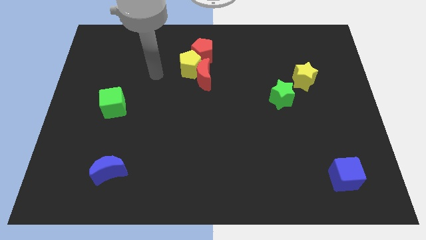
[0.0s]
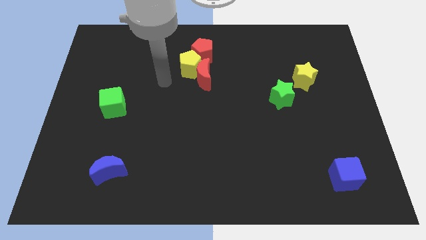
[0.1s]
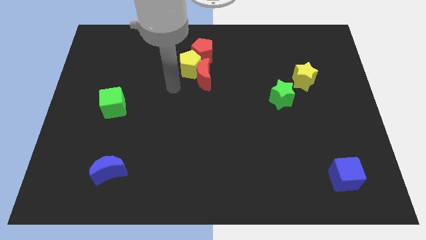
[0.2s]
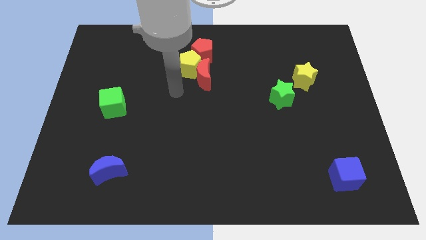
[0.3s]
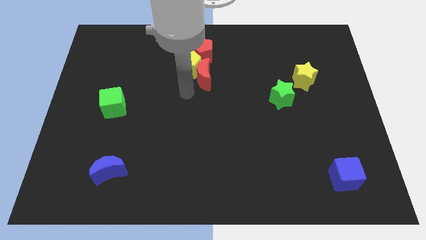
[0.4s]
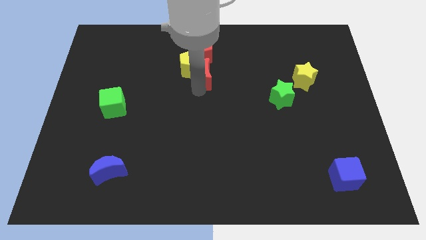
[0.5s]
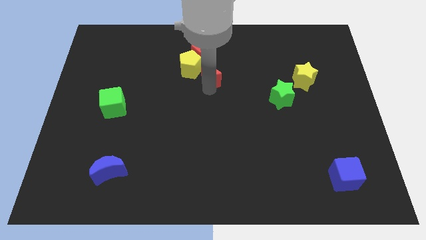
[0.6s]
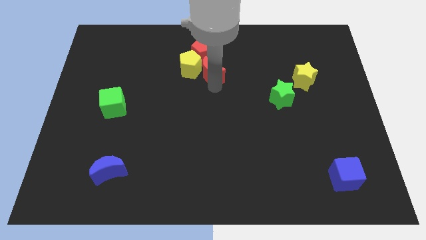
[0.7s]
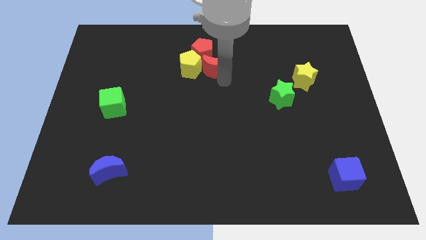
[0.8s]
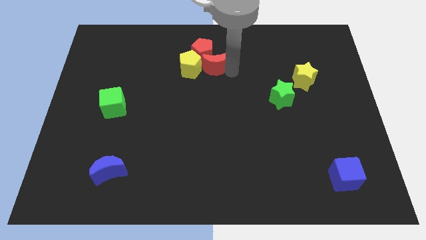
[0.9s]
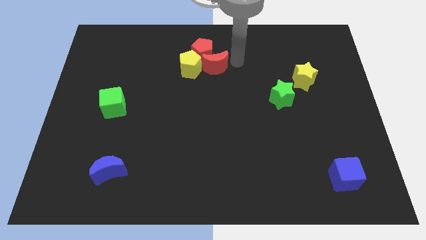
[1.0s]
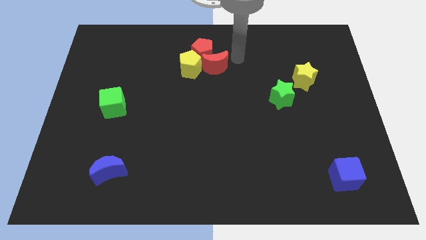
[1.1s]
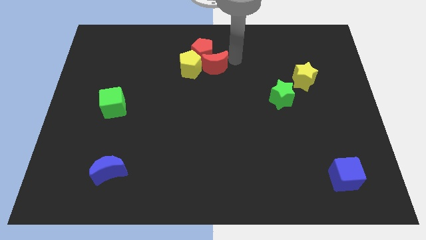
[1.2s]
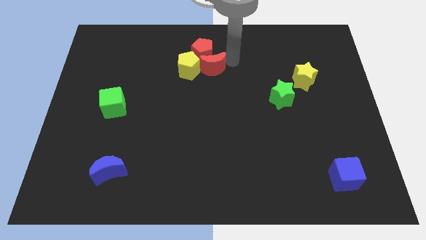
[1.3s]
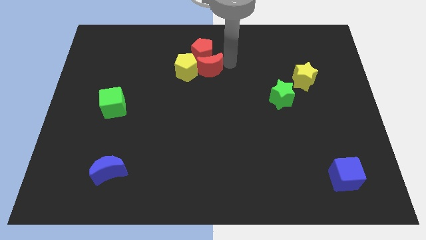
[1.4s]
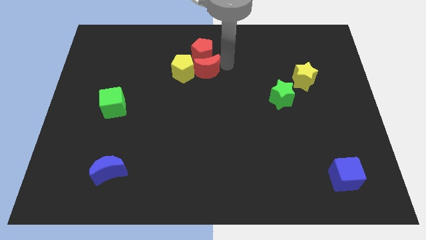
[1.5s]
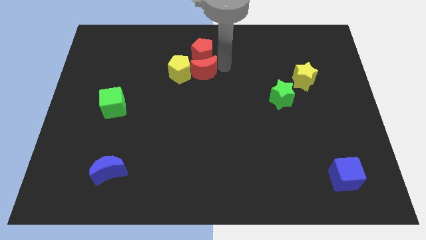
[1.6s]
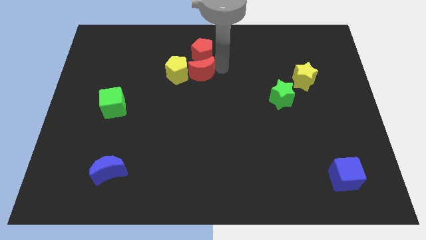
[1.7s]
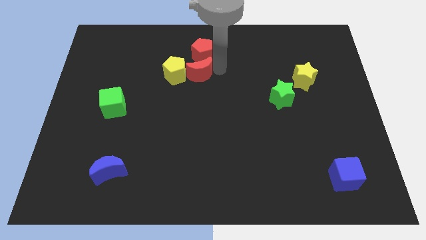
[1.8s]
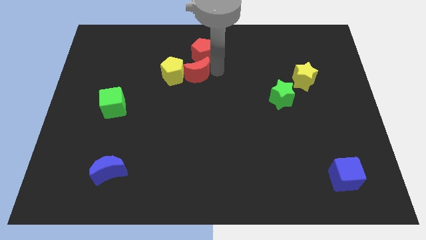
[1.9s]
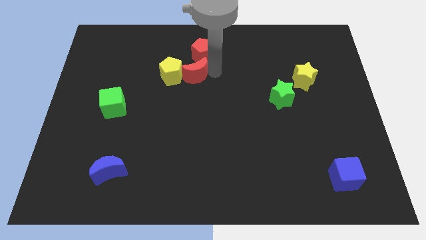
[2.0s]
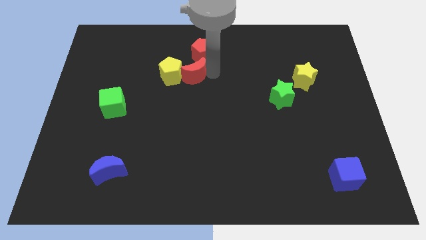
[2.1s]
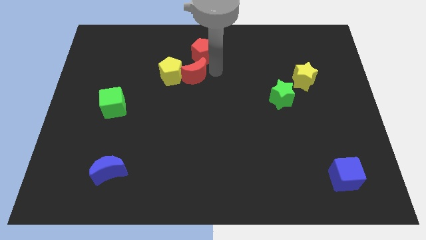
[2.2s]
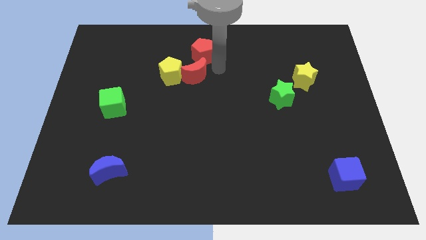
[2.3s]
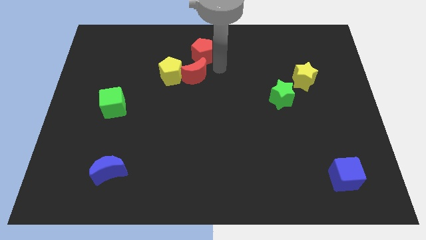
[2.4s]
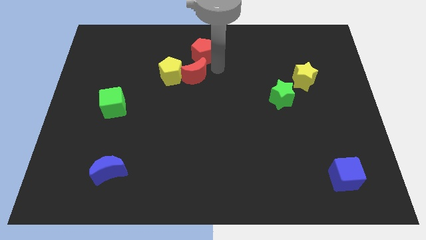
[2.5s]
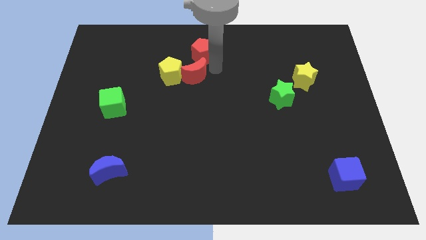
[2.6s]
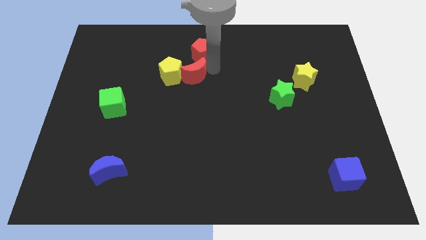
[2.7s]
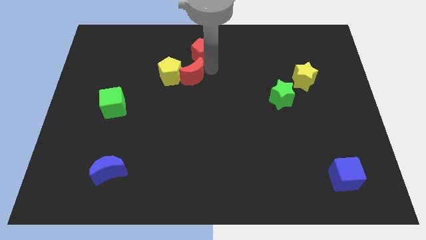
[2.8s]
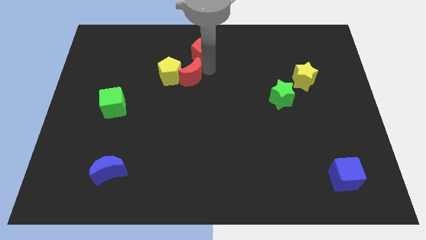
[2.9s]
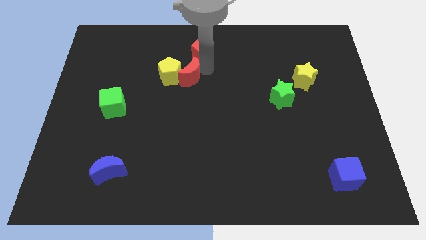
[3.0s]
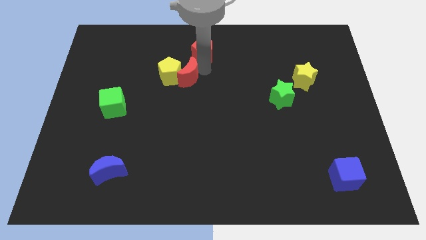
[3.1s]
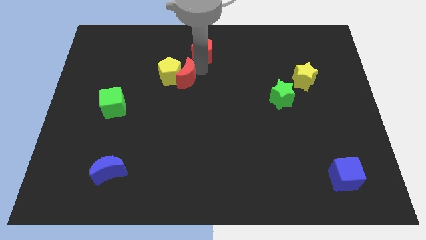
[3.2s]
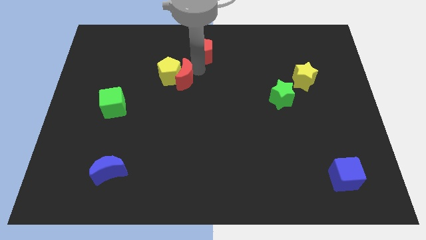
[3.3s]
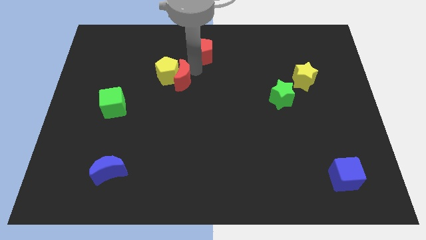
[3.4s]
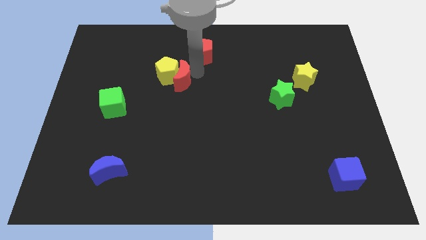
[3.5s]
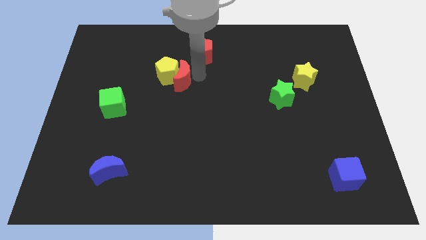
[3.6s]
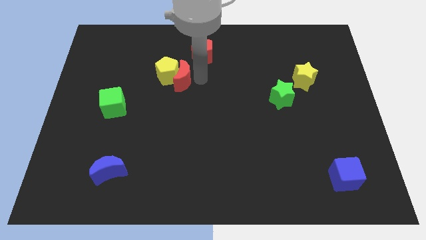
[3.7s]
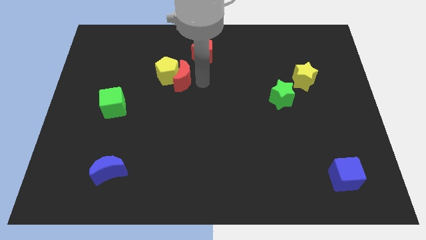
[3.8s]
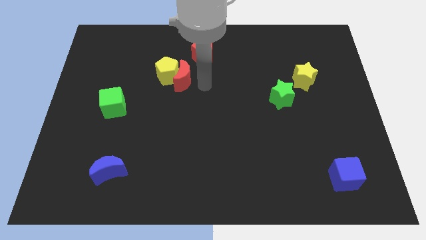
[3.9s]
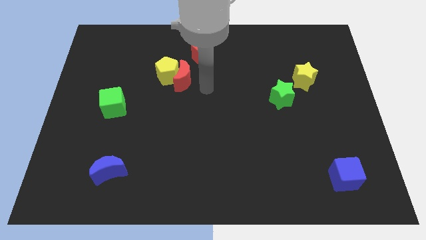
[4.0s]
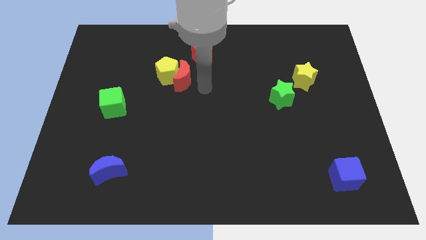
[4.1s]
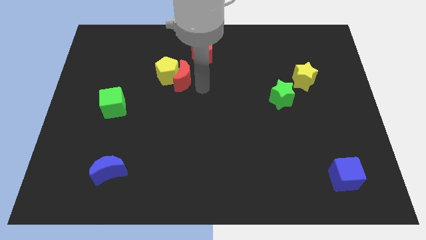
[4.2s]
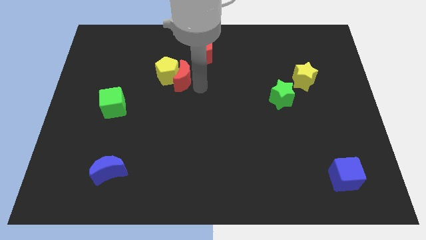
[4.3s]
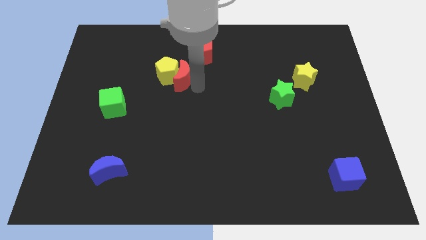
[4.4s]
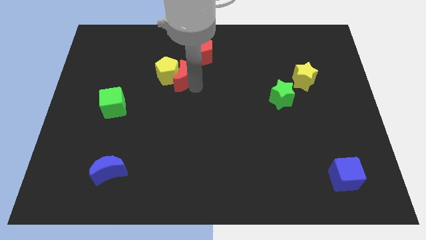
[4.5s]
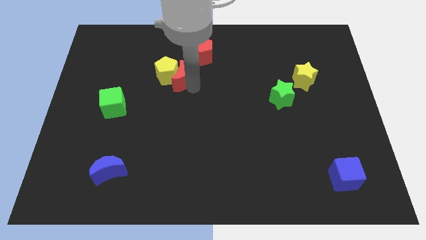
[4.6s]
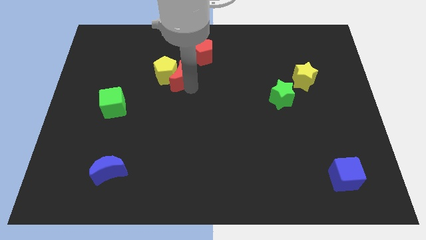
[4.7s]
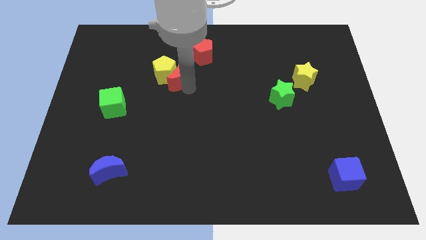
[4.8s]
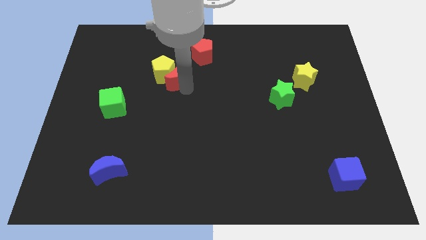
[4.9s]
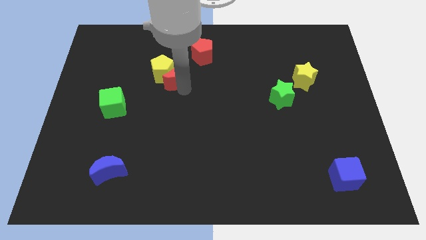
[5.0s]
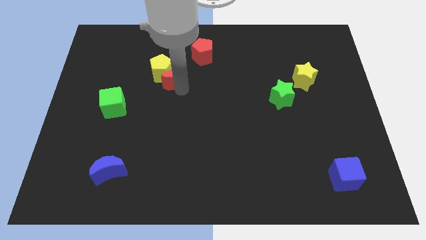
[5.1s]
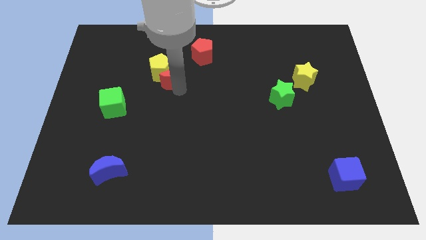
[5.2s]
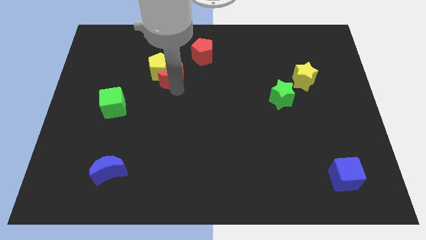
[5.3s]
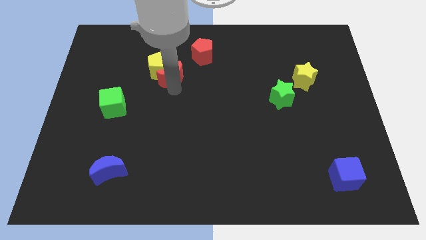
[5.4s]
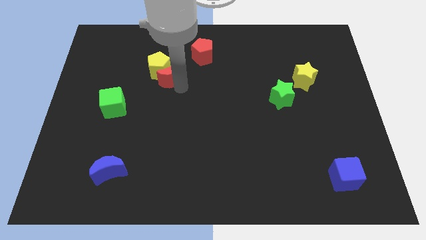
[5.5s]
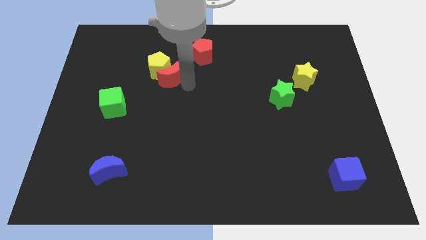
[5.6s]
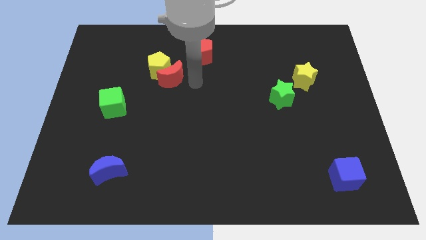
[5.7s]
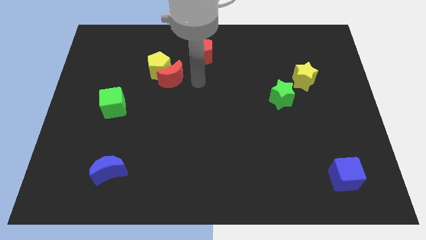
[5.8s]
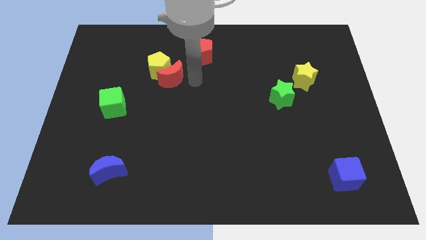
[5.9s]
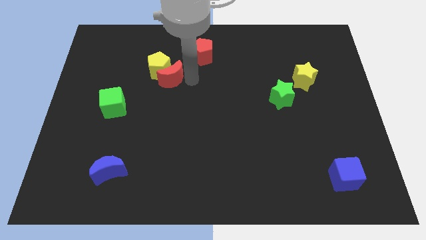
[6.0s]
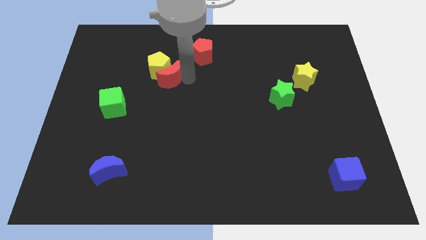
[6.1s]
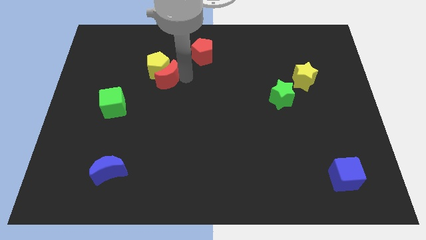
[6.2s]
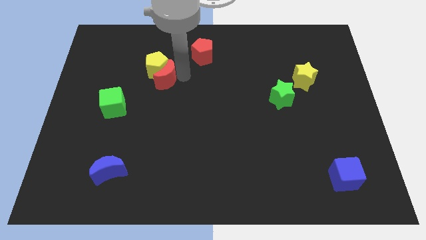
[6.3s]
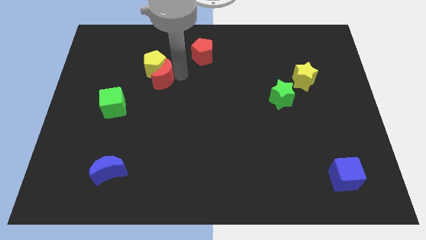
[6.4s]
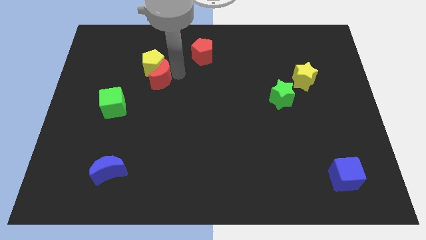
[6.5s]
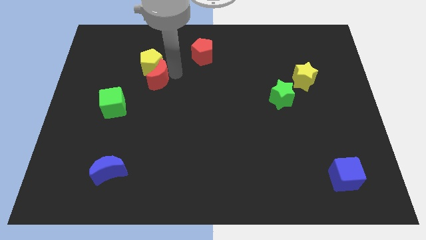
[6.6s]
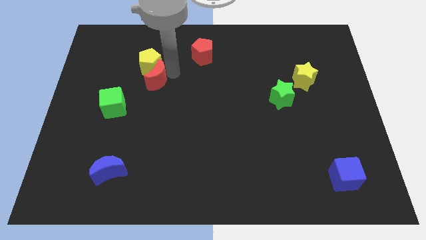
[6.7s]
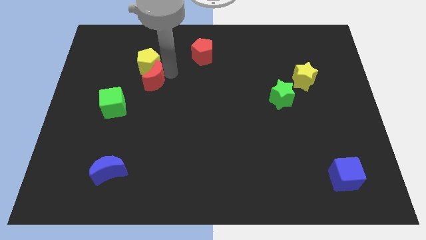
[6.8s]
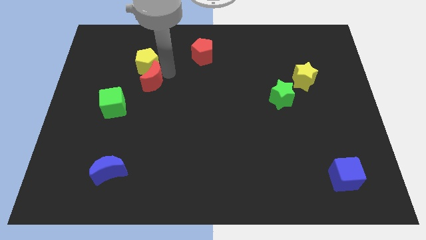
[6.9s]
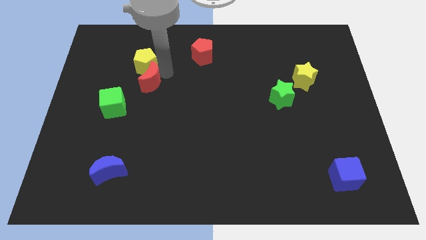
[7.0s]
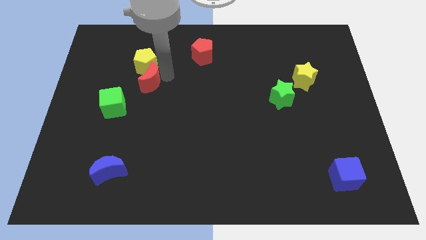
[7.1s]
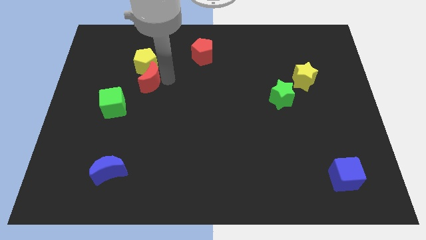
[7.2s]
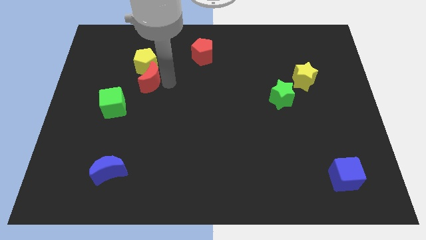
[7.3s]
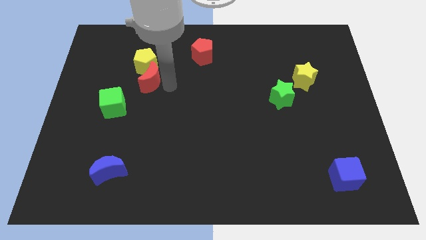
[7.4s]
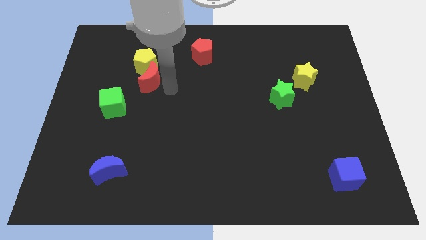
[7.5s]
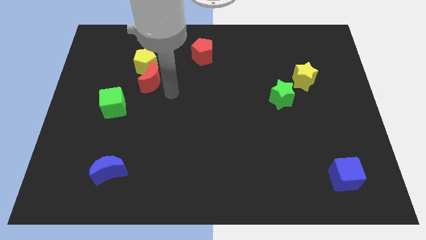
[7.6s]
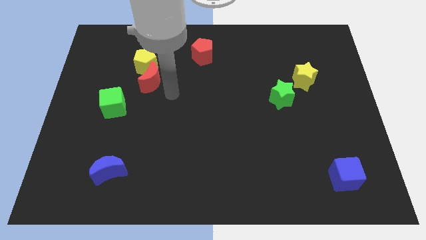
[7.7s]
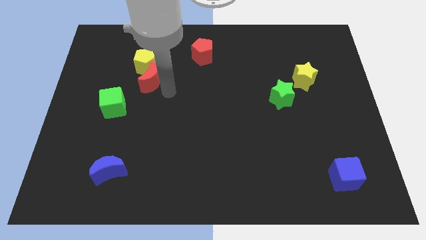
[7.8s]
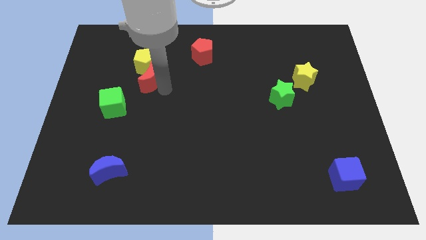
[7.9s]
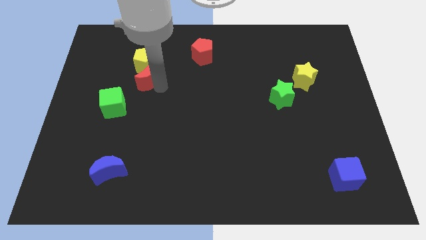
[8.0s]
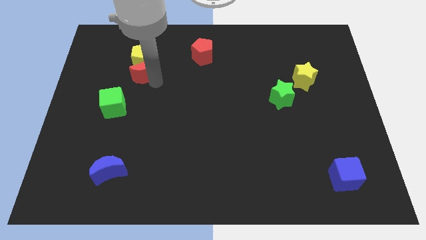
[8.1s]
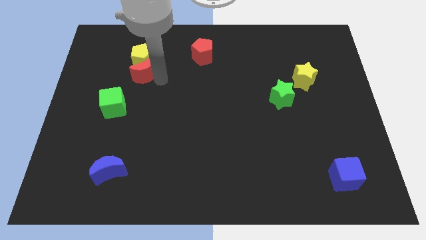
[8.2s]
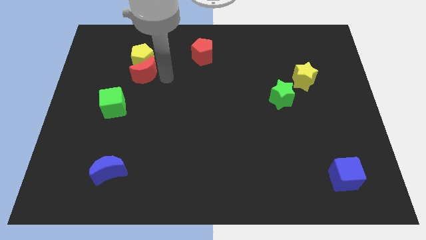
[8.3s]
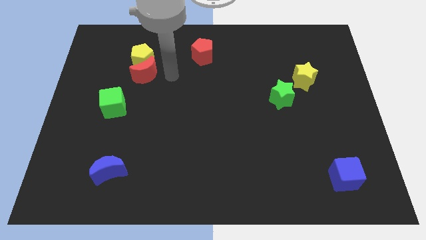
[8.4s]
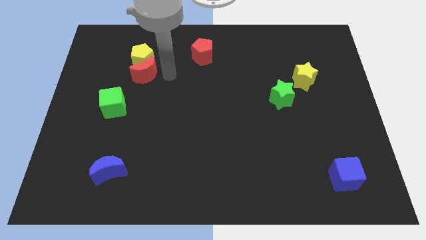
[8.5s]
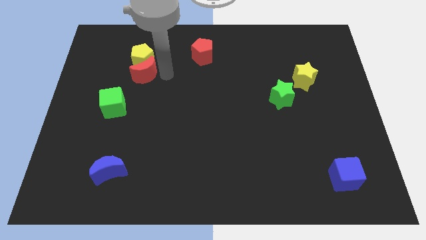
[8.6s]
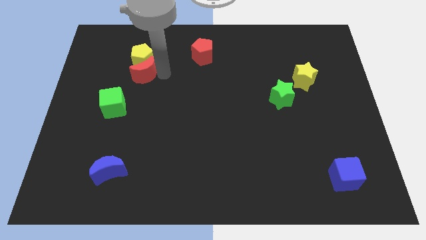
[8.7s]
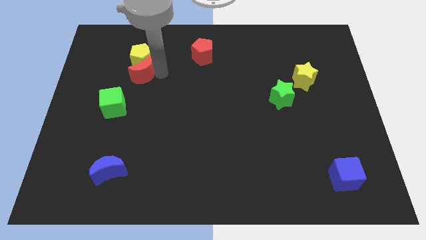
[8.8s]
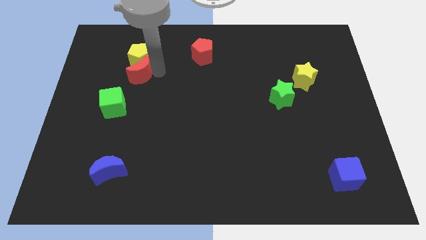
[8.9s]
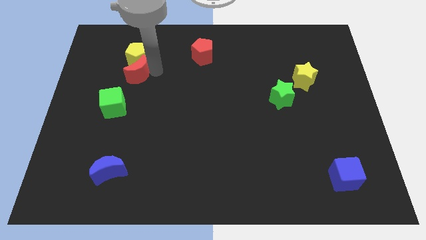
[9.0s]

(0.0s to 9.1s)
push the red moon to the top side of the green cube
